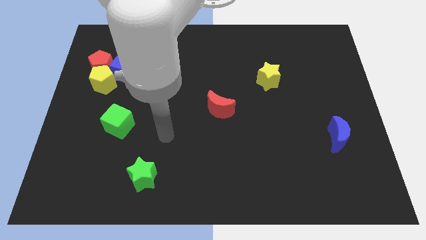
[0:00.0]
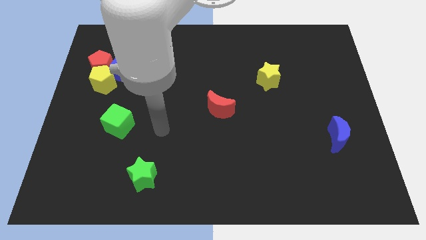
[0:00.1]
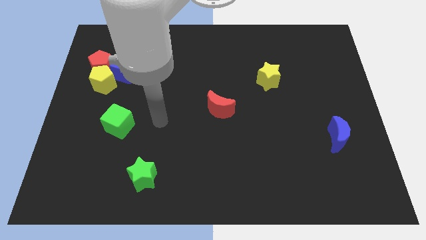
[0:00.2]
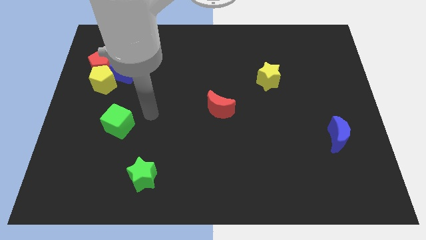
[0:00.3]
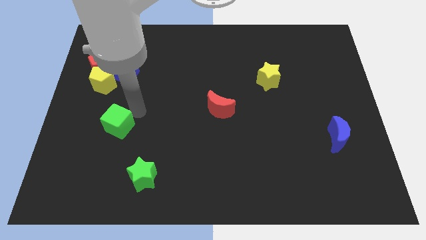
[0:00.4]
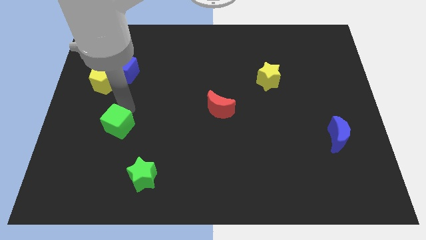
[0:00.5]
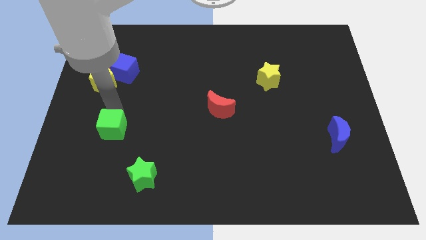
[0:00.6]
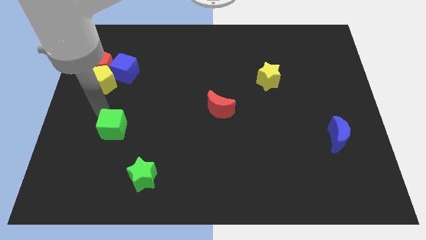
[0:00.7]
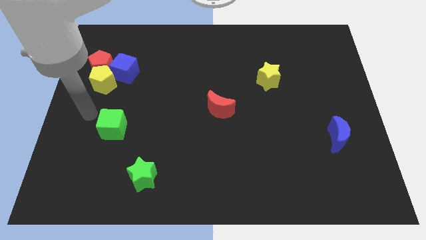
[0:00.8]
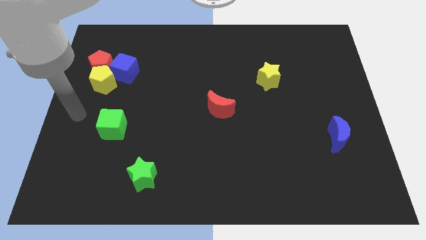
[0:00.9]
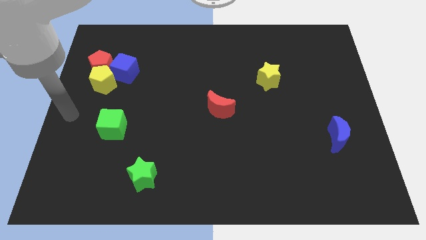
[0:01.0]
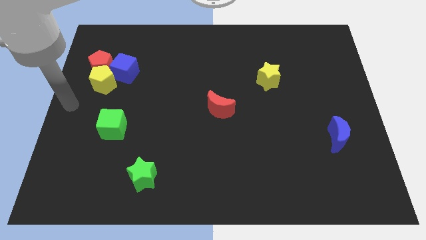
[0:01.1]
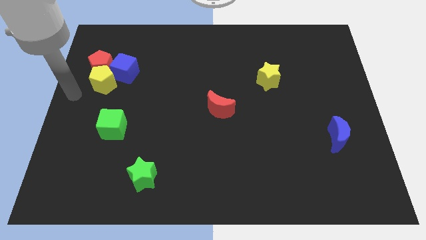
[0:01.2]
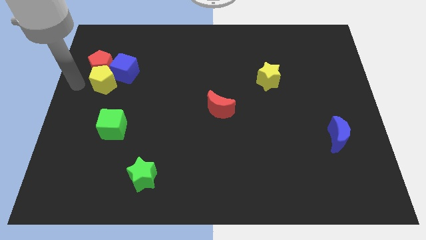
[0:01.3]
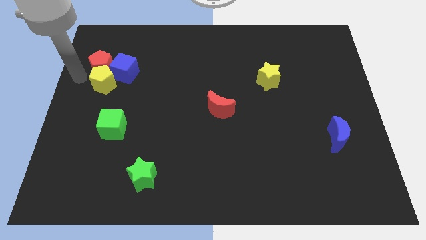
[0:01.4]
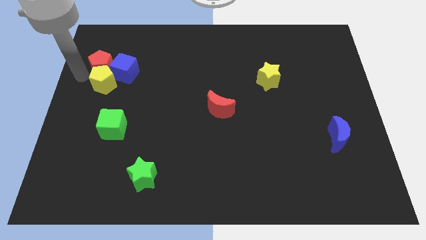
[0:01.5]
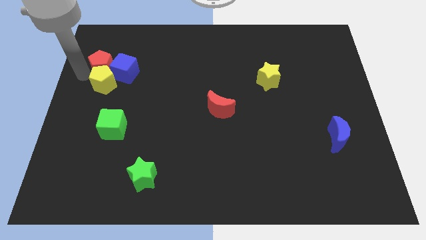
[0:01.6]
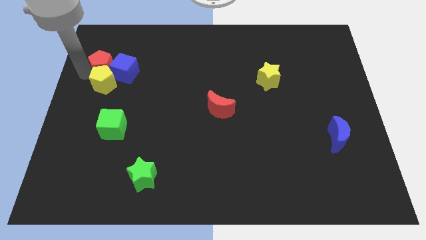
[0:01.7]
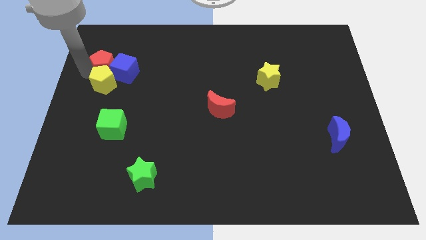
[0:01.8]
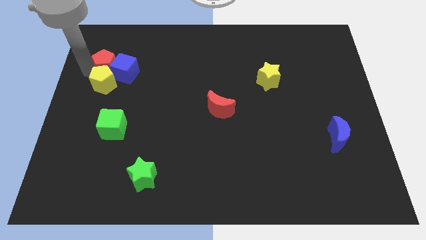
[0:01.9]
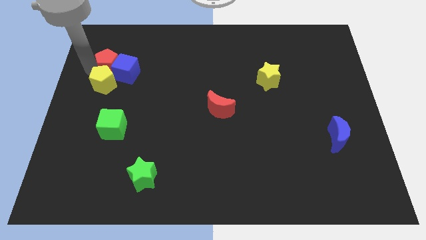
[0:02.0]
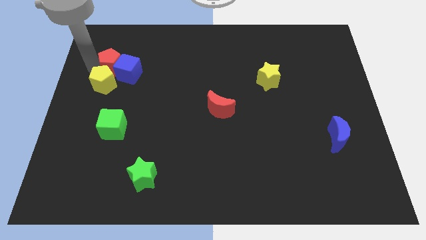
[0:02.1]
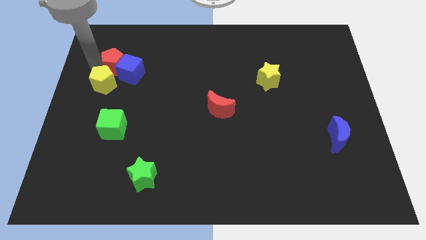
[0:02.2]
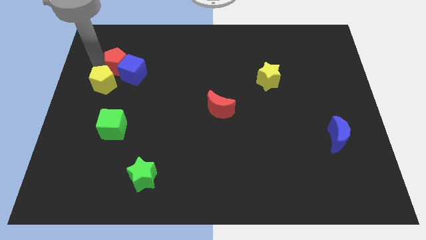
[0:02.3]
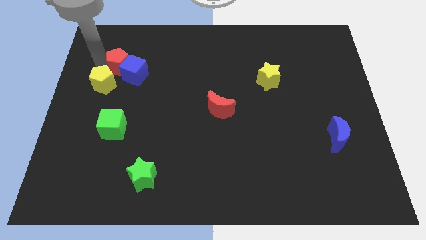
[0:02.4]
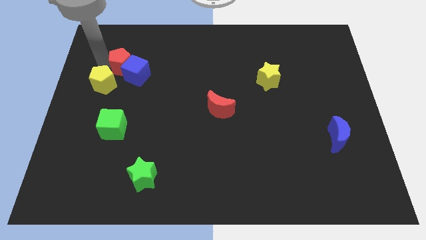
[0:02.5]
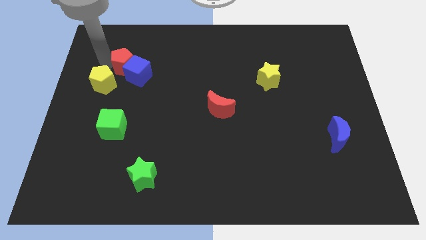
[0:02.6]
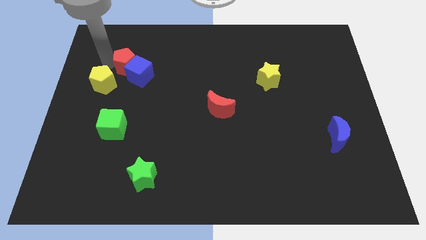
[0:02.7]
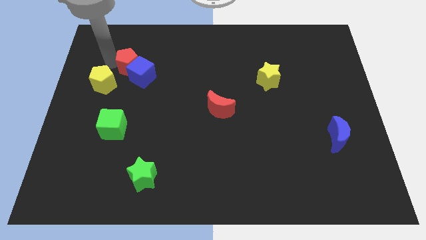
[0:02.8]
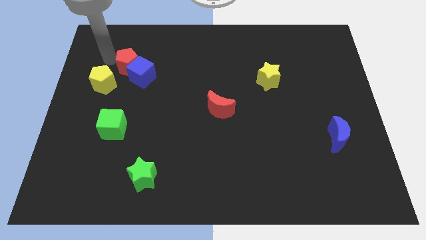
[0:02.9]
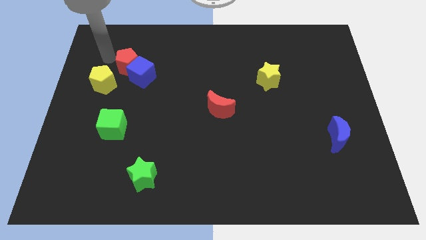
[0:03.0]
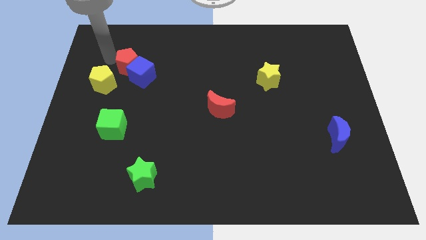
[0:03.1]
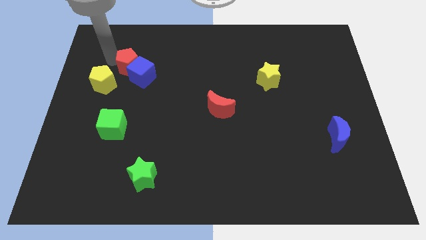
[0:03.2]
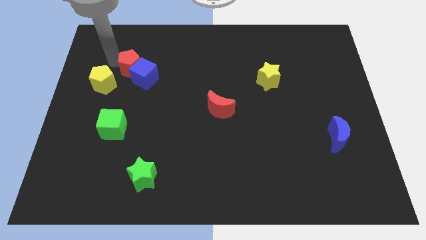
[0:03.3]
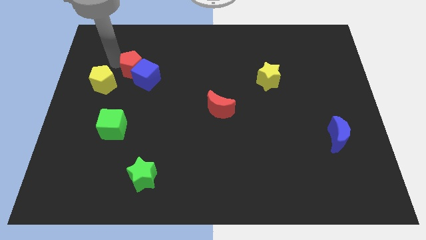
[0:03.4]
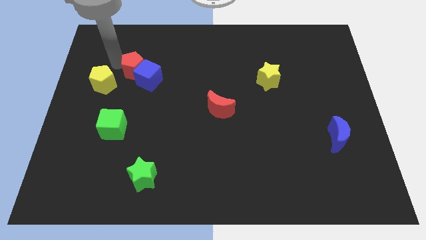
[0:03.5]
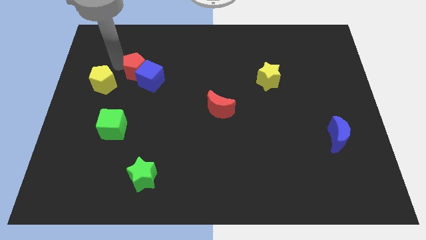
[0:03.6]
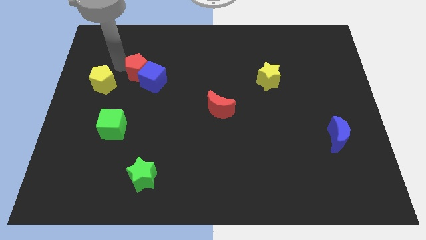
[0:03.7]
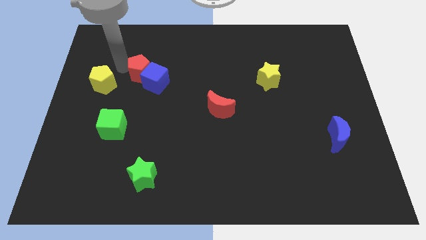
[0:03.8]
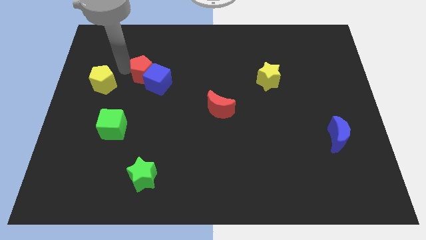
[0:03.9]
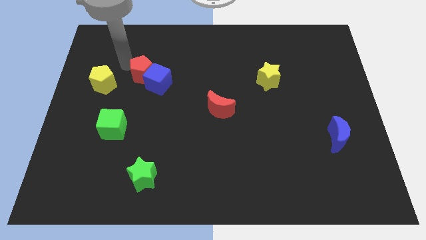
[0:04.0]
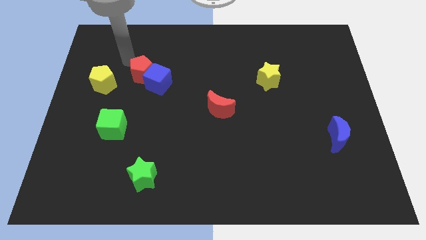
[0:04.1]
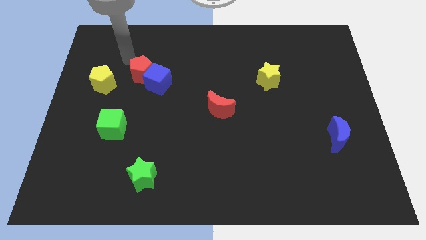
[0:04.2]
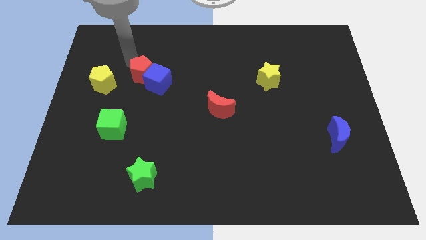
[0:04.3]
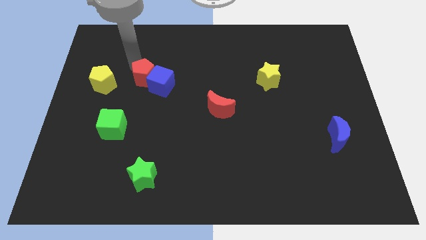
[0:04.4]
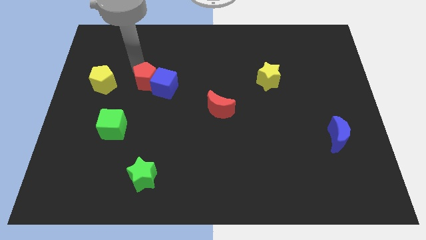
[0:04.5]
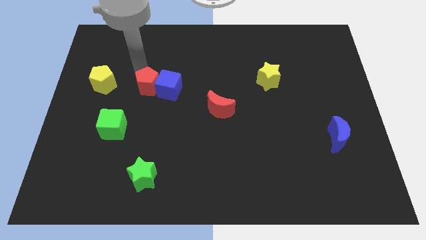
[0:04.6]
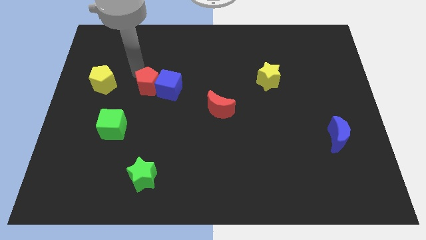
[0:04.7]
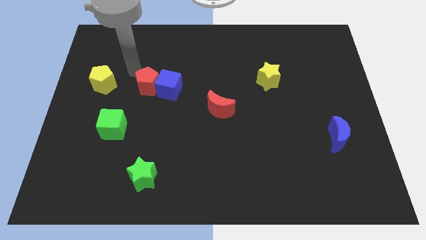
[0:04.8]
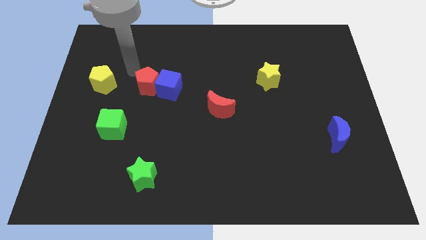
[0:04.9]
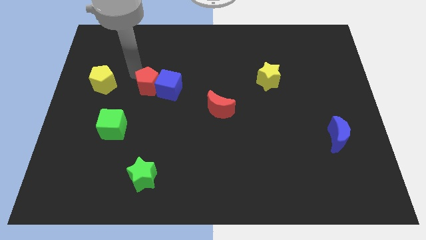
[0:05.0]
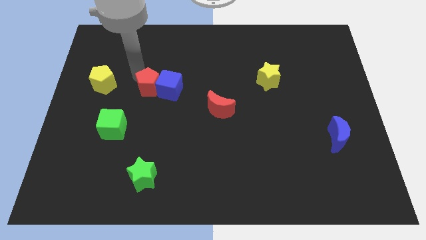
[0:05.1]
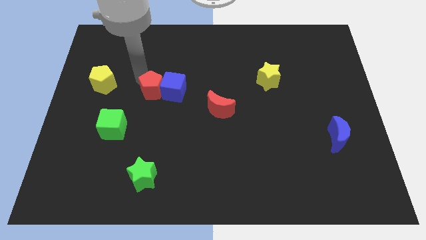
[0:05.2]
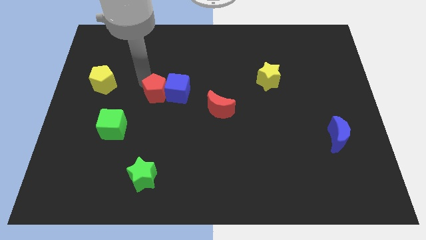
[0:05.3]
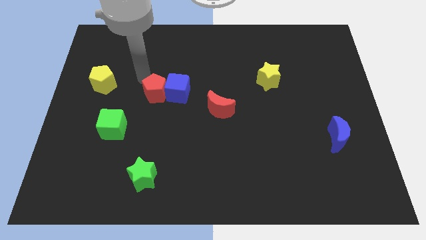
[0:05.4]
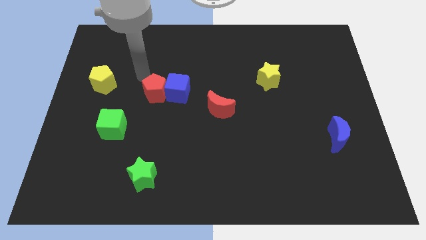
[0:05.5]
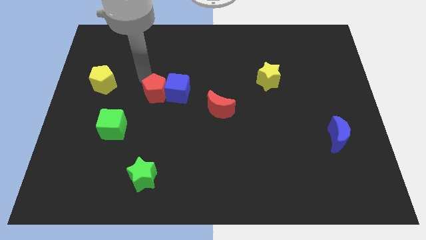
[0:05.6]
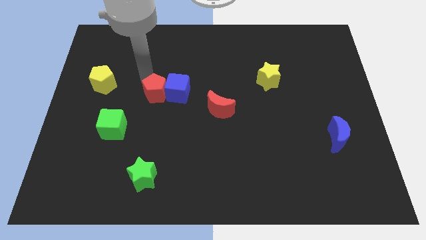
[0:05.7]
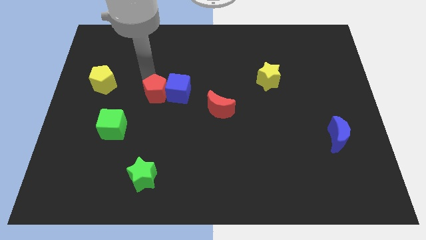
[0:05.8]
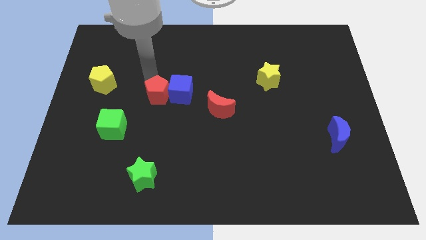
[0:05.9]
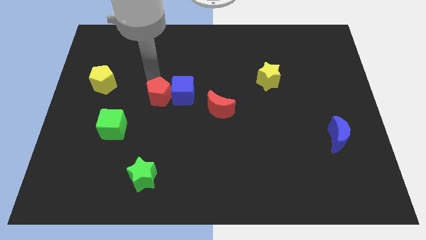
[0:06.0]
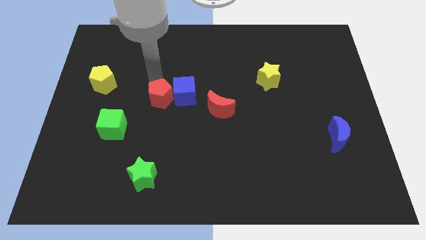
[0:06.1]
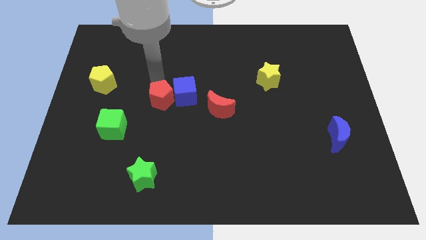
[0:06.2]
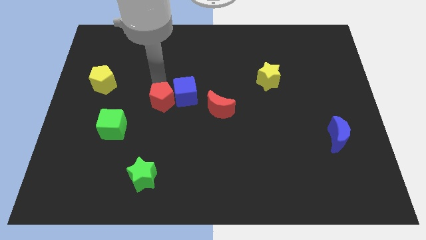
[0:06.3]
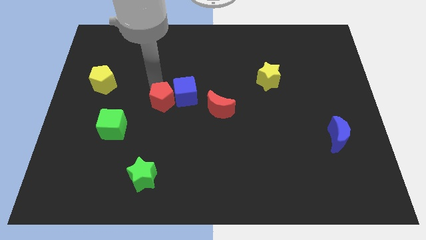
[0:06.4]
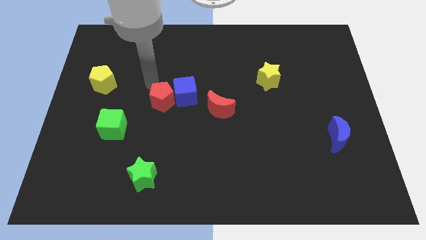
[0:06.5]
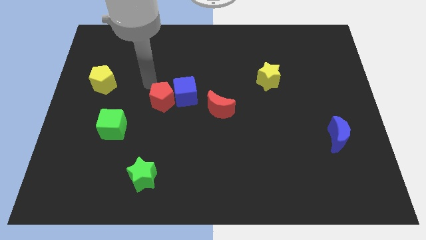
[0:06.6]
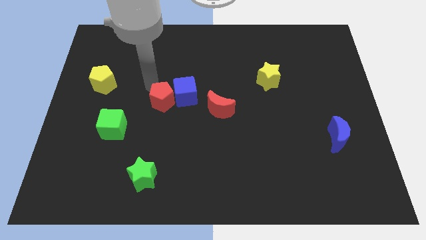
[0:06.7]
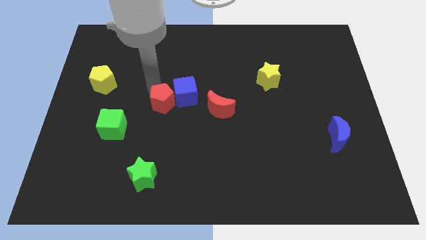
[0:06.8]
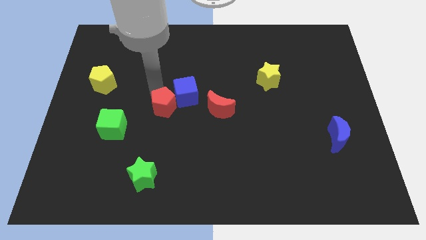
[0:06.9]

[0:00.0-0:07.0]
move the red pentagon down and right

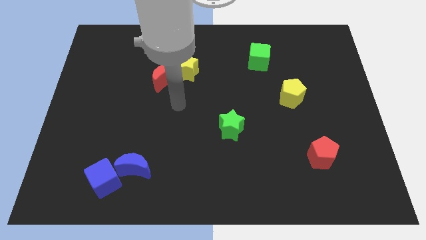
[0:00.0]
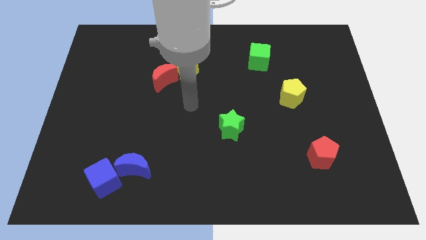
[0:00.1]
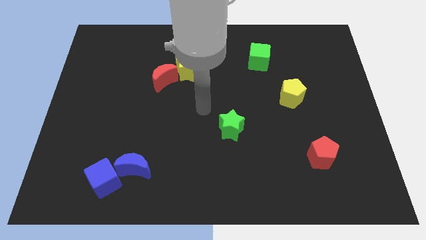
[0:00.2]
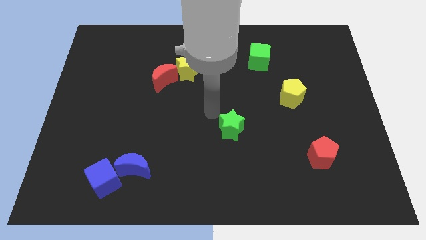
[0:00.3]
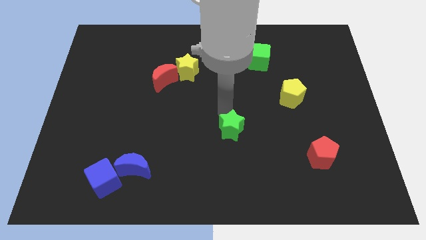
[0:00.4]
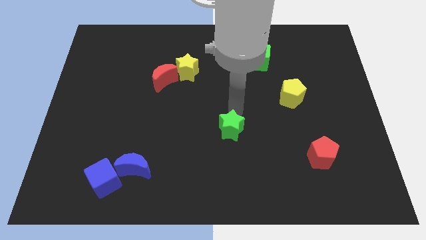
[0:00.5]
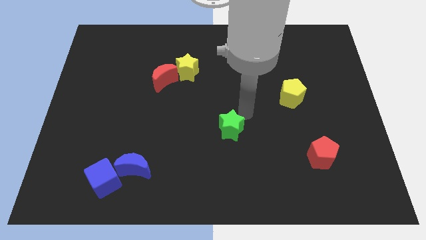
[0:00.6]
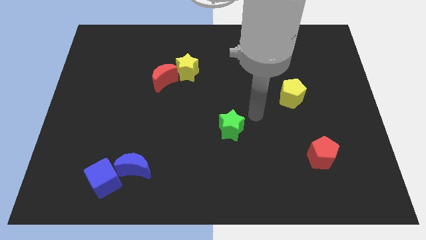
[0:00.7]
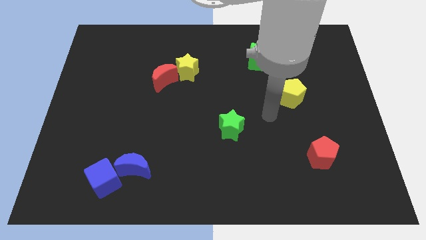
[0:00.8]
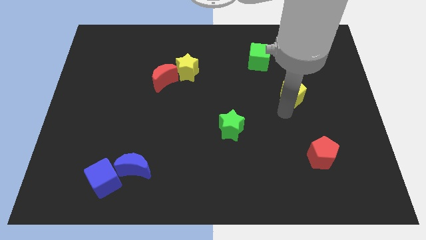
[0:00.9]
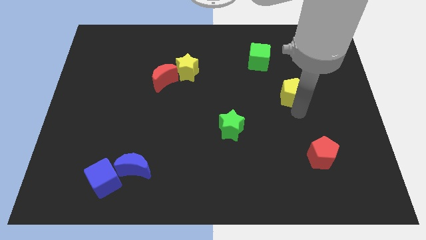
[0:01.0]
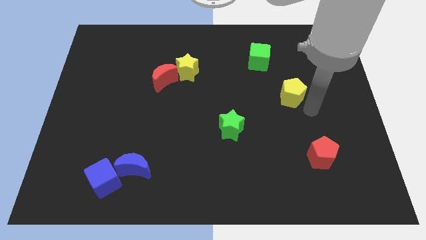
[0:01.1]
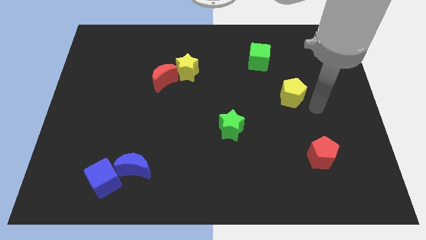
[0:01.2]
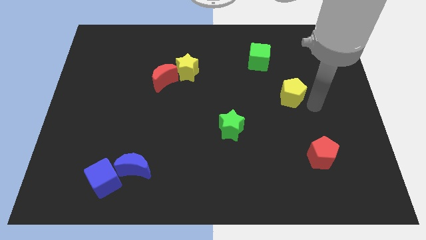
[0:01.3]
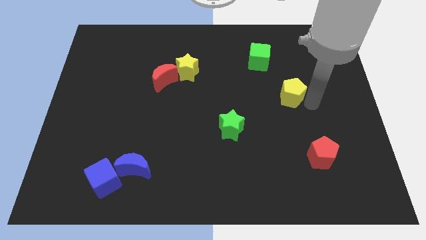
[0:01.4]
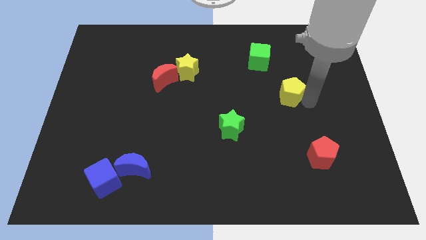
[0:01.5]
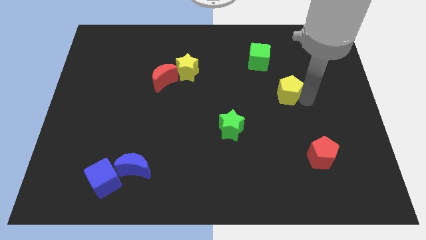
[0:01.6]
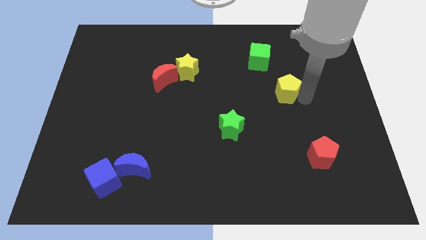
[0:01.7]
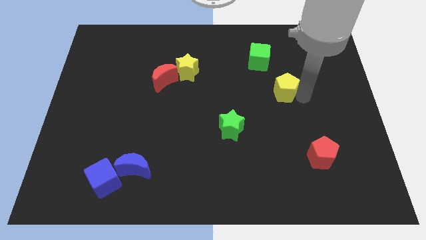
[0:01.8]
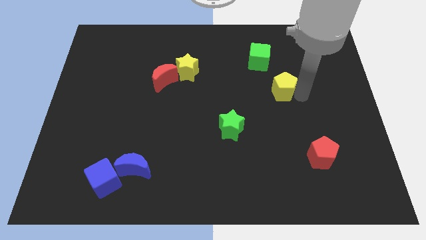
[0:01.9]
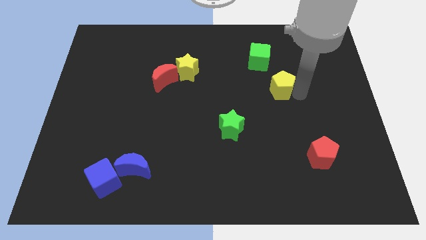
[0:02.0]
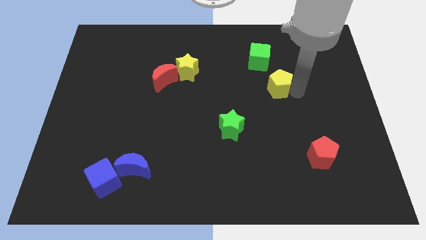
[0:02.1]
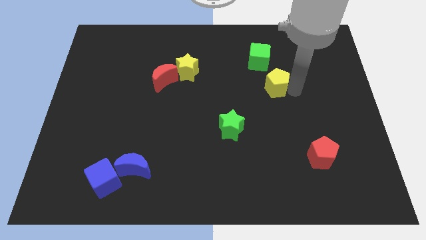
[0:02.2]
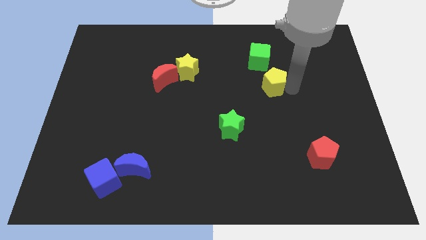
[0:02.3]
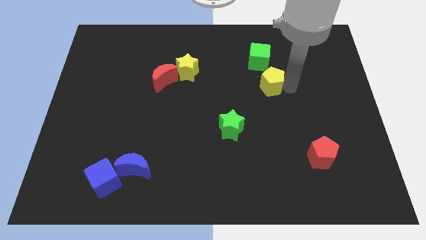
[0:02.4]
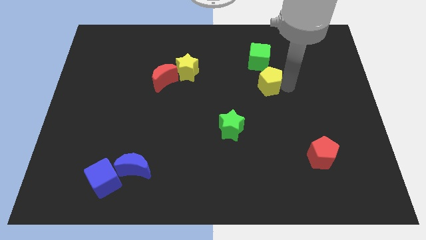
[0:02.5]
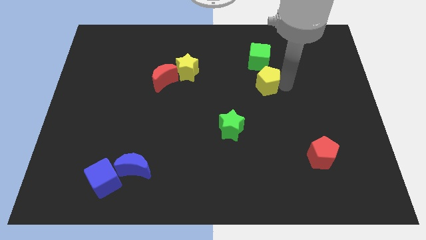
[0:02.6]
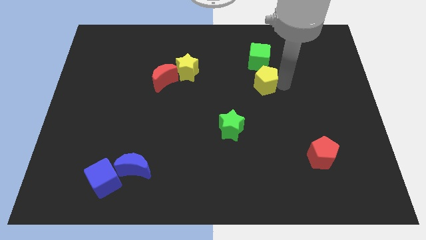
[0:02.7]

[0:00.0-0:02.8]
slightly move the yellow pentagon upwards and left diagonally
